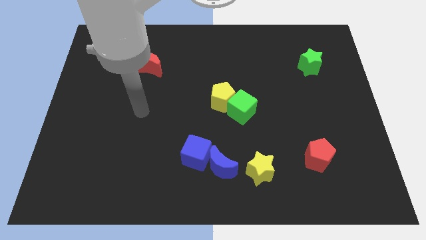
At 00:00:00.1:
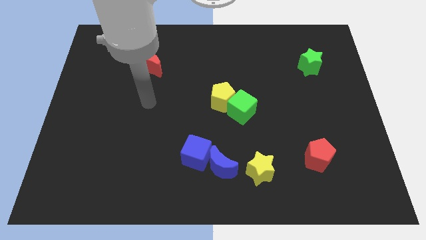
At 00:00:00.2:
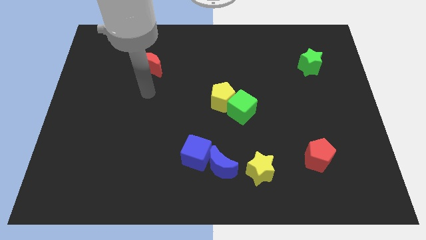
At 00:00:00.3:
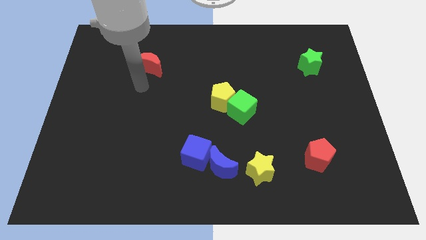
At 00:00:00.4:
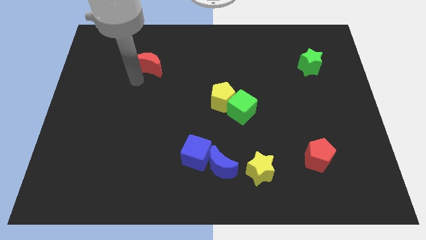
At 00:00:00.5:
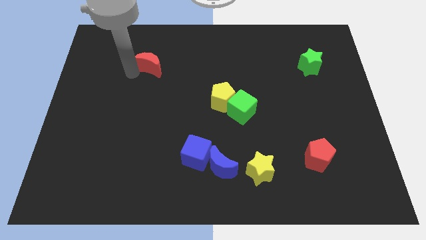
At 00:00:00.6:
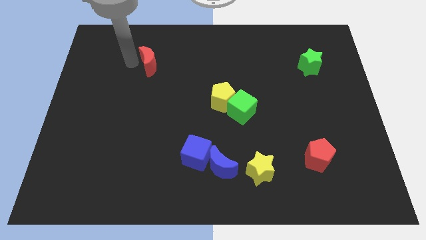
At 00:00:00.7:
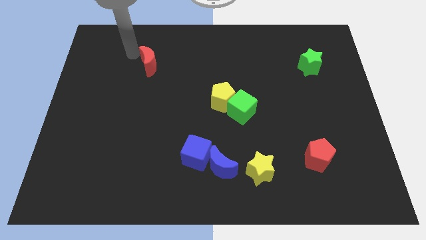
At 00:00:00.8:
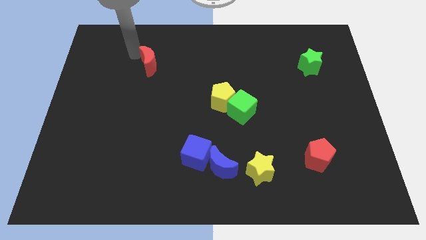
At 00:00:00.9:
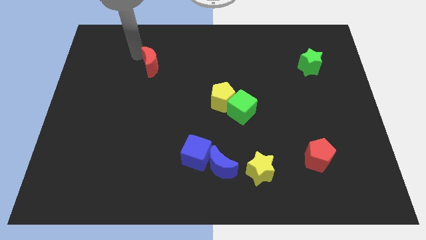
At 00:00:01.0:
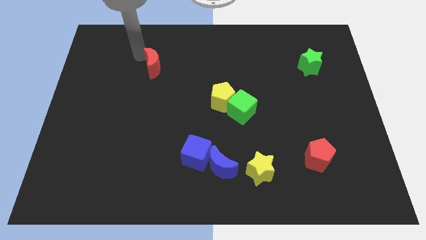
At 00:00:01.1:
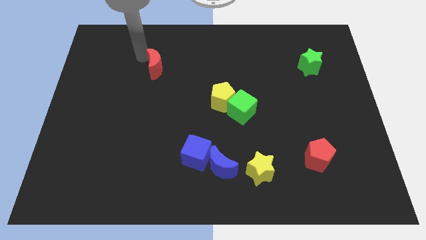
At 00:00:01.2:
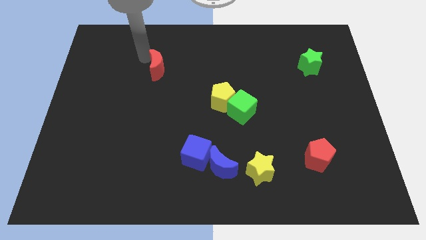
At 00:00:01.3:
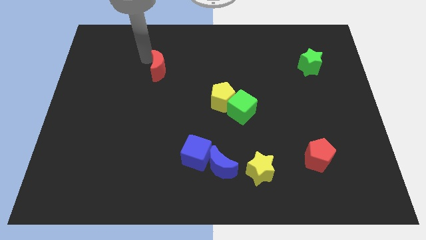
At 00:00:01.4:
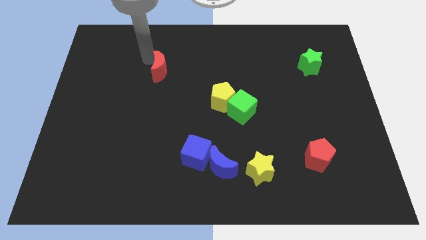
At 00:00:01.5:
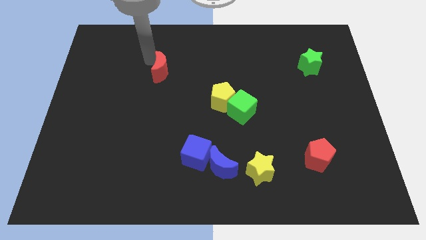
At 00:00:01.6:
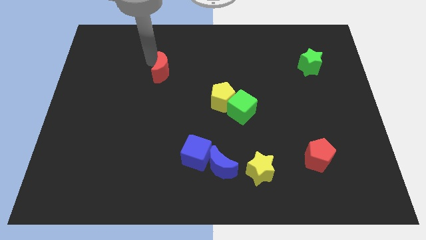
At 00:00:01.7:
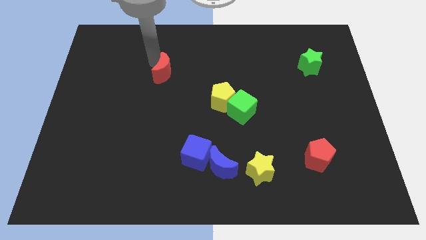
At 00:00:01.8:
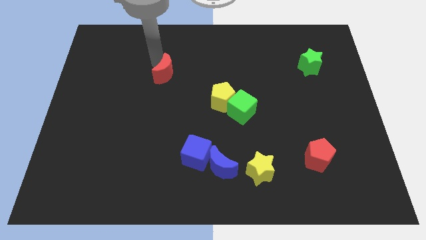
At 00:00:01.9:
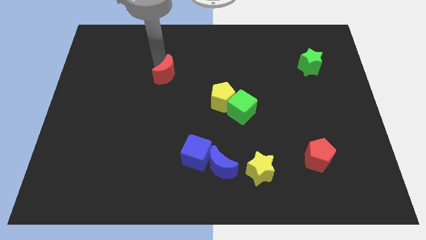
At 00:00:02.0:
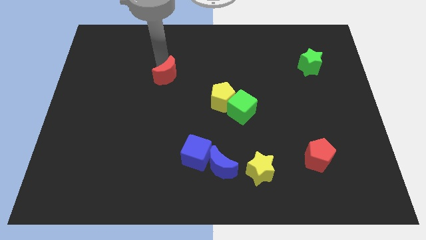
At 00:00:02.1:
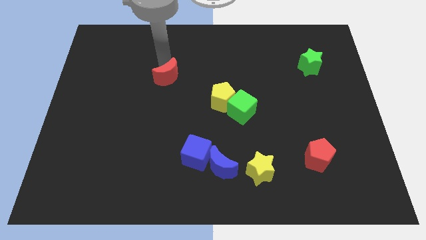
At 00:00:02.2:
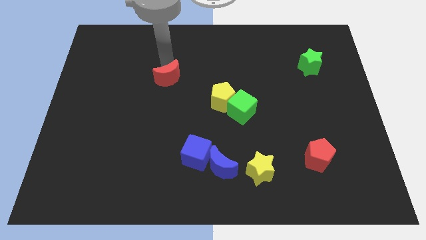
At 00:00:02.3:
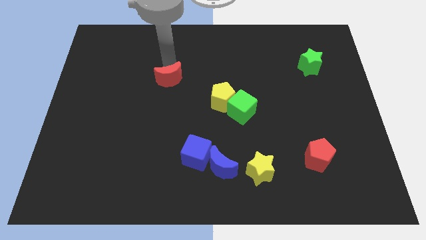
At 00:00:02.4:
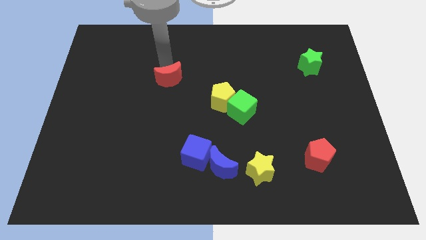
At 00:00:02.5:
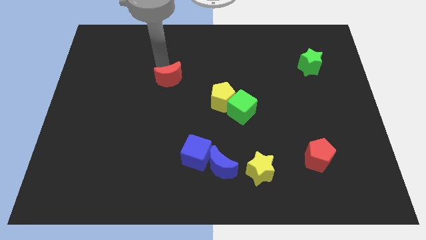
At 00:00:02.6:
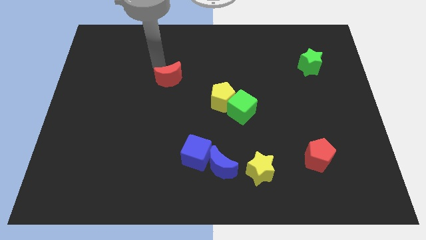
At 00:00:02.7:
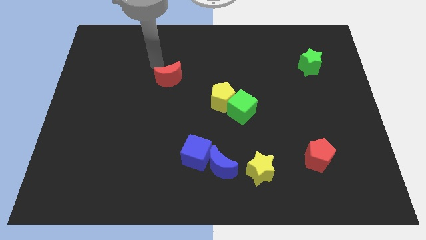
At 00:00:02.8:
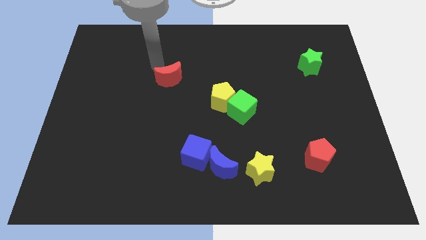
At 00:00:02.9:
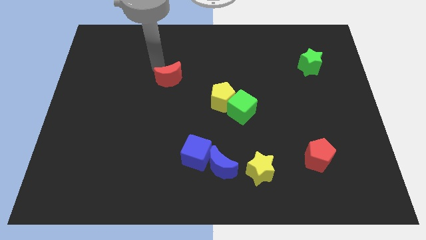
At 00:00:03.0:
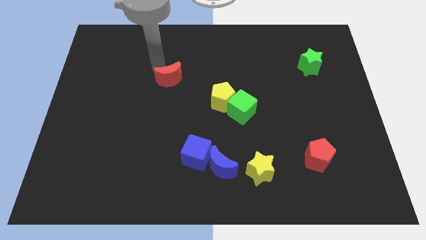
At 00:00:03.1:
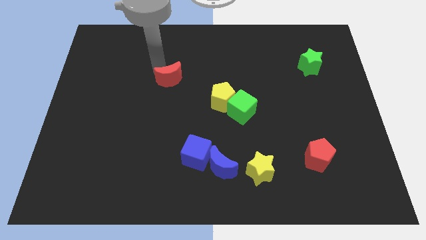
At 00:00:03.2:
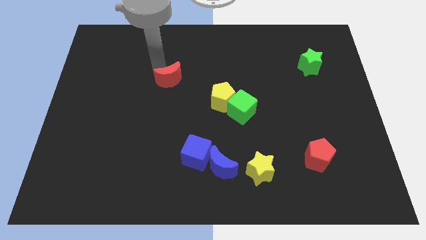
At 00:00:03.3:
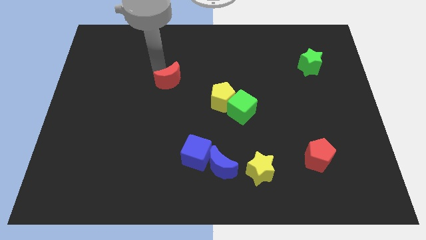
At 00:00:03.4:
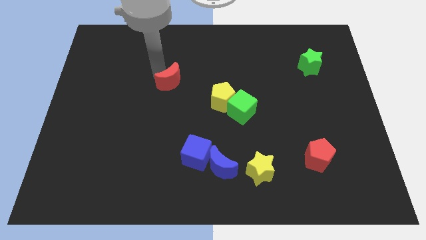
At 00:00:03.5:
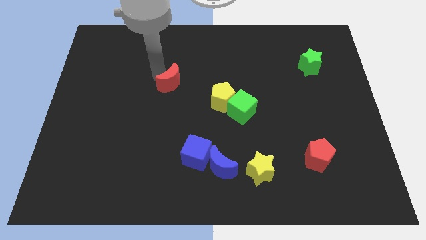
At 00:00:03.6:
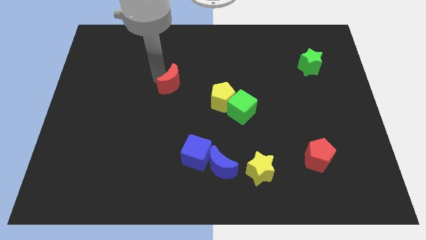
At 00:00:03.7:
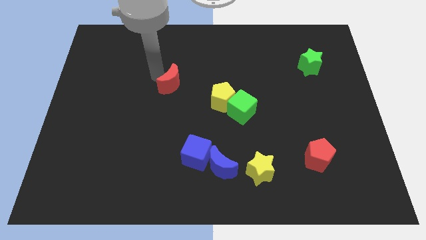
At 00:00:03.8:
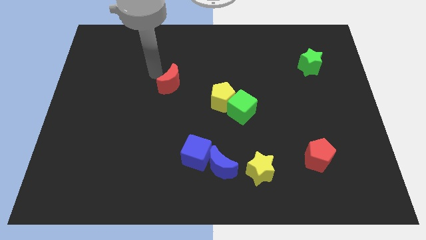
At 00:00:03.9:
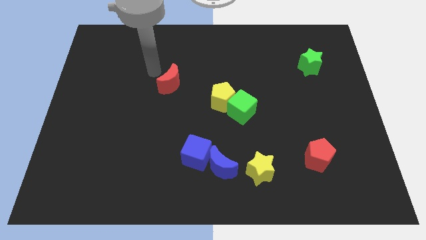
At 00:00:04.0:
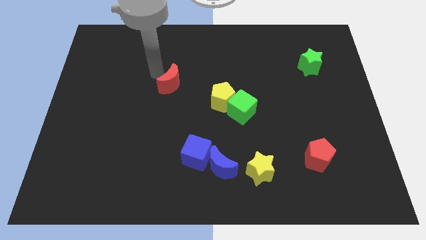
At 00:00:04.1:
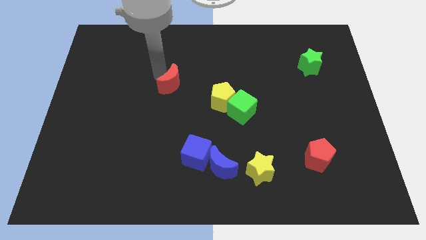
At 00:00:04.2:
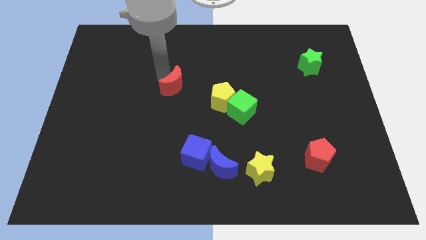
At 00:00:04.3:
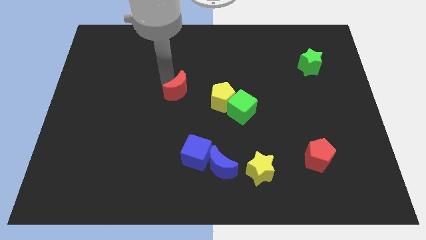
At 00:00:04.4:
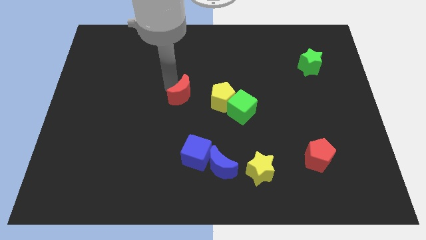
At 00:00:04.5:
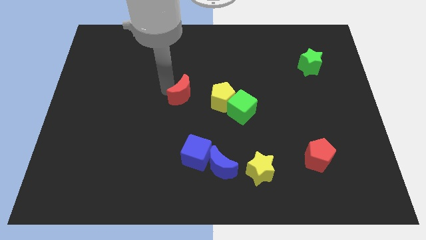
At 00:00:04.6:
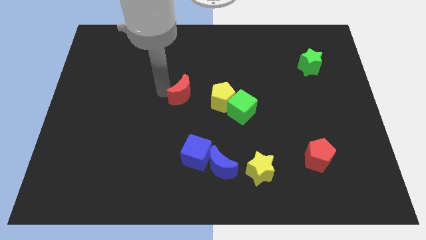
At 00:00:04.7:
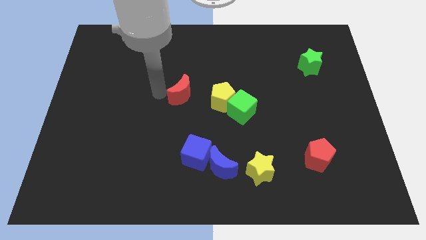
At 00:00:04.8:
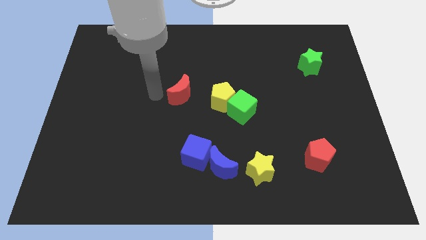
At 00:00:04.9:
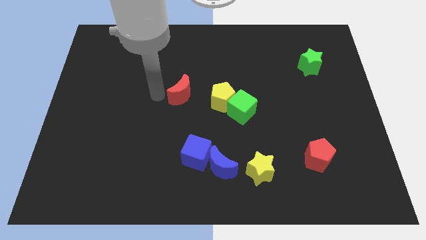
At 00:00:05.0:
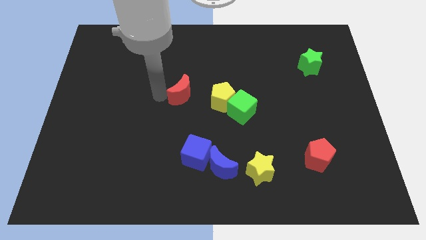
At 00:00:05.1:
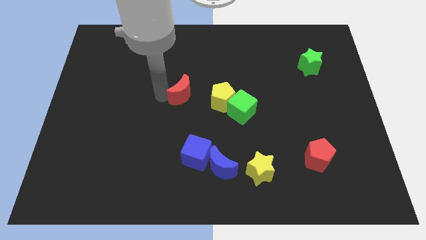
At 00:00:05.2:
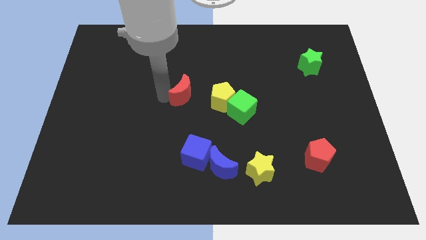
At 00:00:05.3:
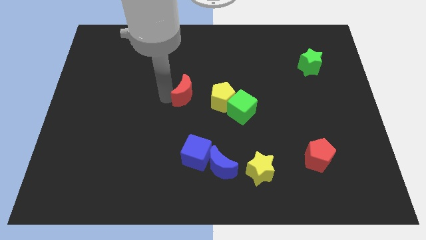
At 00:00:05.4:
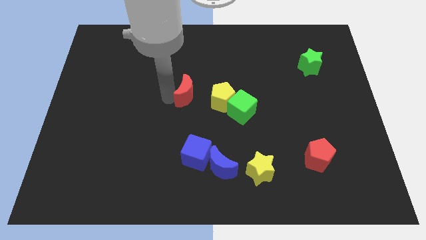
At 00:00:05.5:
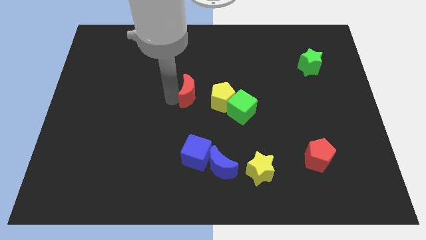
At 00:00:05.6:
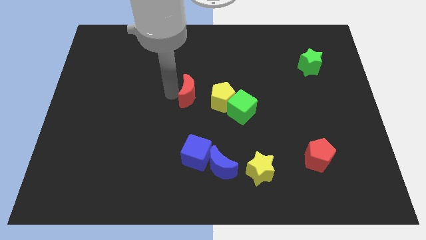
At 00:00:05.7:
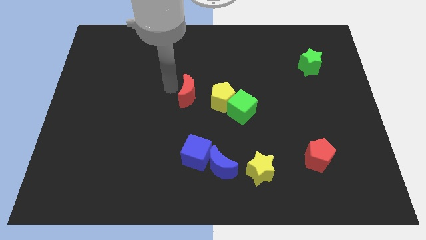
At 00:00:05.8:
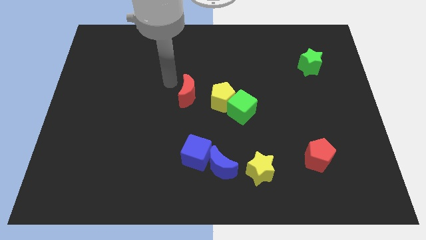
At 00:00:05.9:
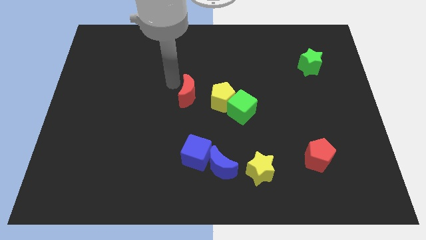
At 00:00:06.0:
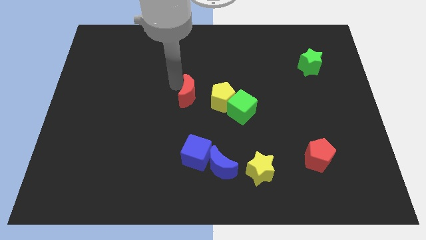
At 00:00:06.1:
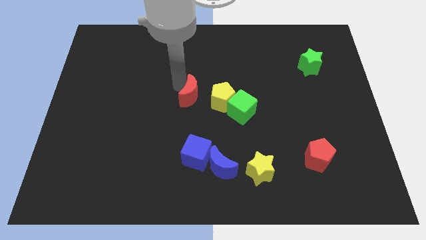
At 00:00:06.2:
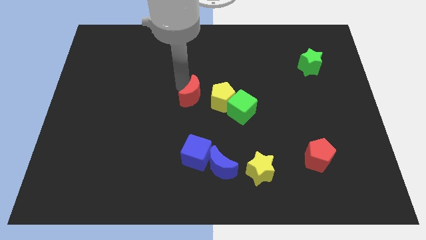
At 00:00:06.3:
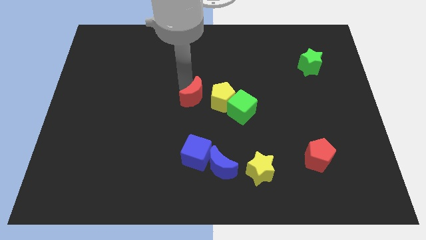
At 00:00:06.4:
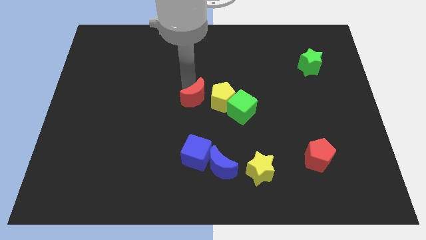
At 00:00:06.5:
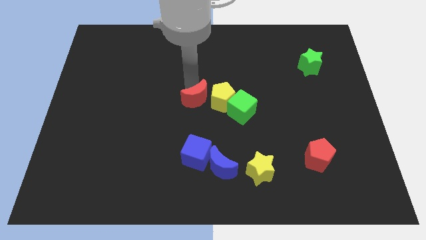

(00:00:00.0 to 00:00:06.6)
slide the red moon towards the yellow pentagon

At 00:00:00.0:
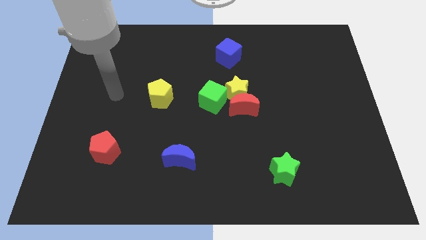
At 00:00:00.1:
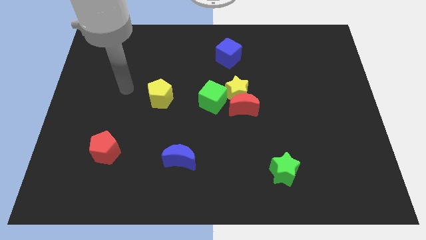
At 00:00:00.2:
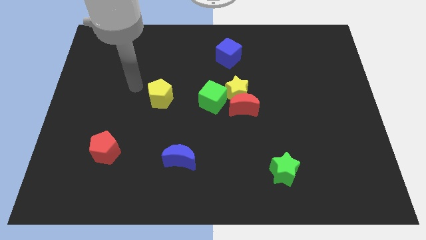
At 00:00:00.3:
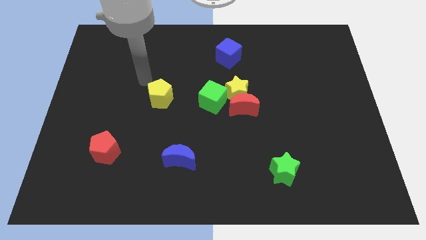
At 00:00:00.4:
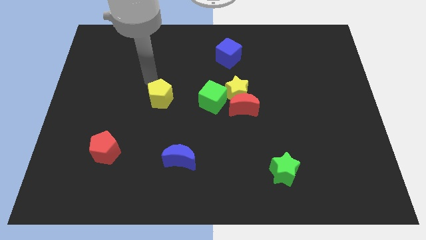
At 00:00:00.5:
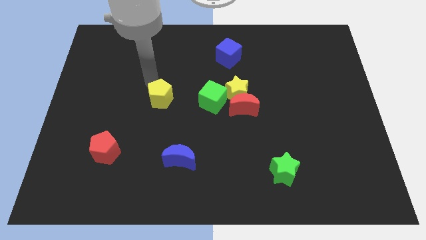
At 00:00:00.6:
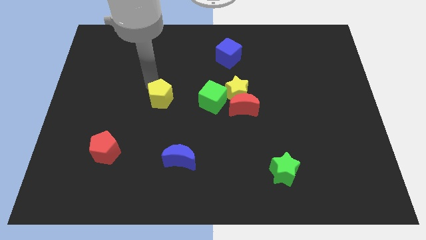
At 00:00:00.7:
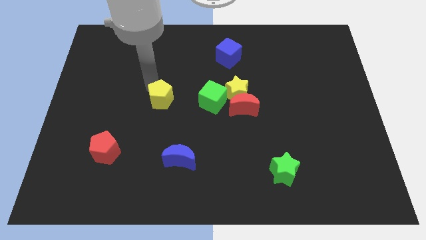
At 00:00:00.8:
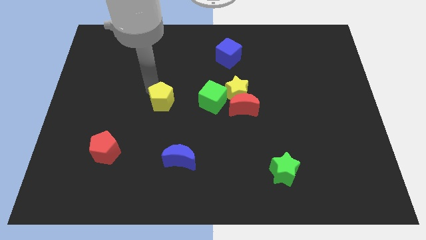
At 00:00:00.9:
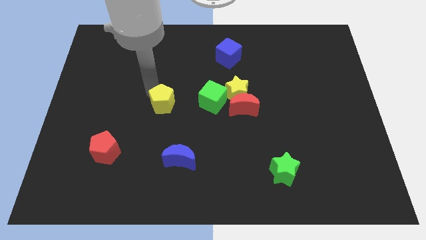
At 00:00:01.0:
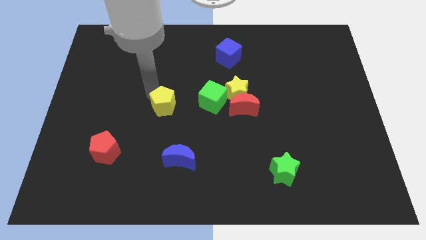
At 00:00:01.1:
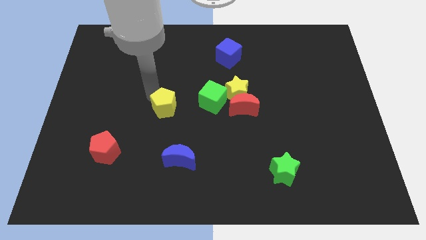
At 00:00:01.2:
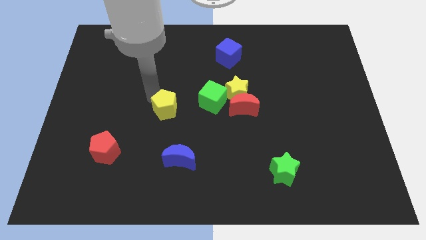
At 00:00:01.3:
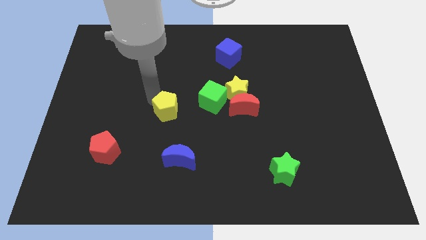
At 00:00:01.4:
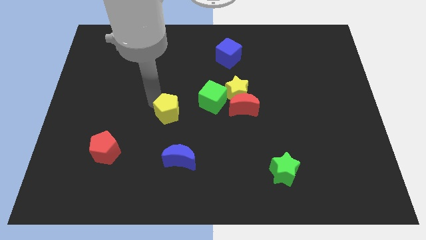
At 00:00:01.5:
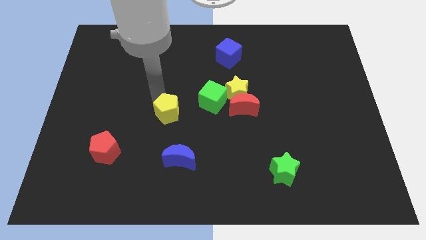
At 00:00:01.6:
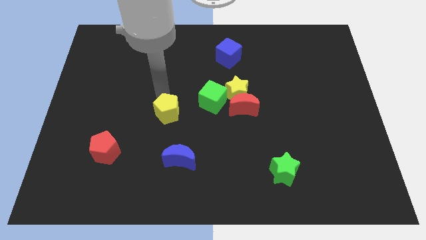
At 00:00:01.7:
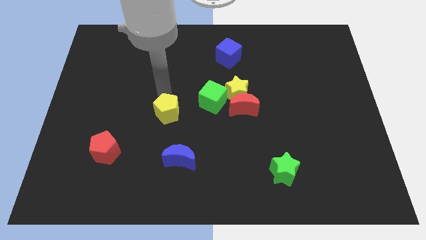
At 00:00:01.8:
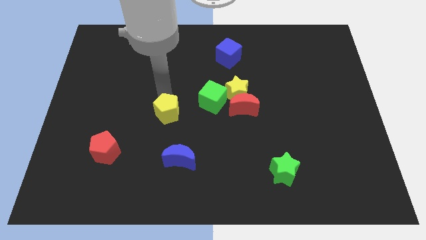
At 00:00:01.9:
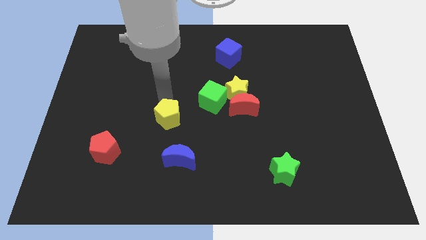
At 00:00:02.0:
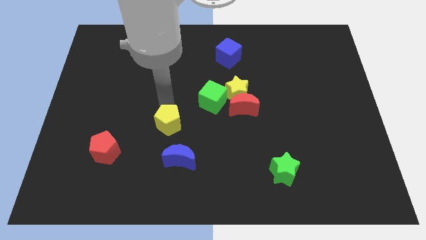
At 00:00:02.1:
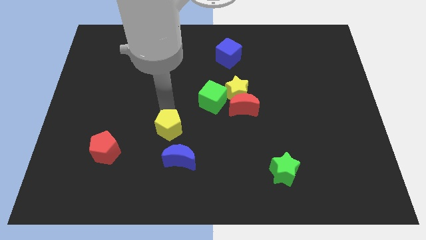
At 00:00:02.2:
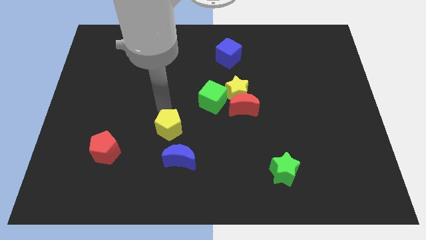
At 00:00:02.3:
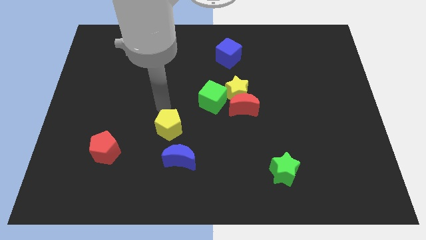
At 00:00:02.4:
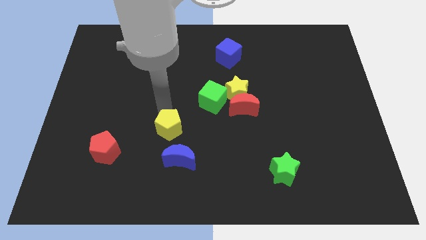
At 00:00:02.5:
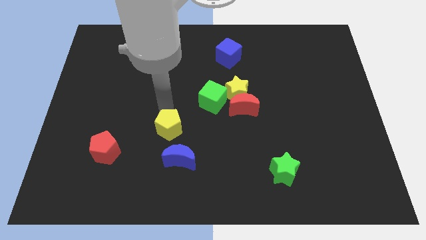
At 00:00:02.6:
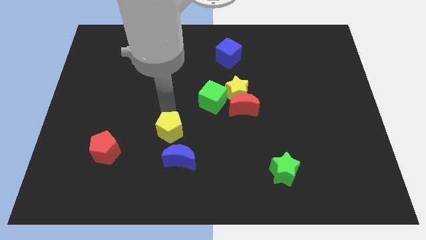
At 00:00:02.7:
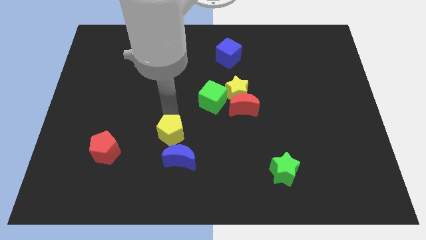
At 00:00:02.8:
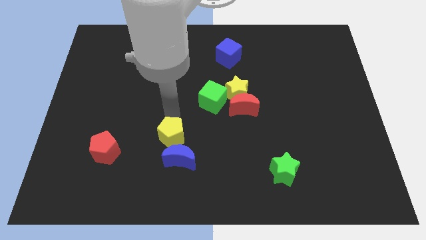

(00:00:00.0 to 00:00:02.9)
slide the yellow pentagon close to the blue moon
